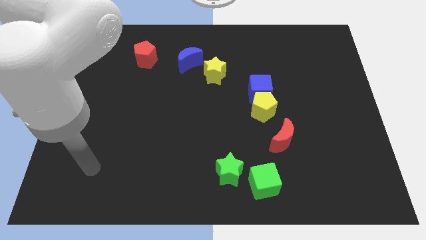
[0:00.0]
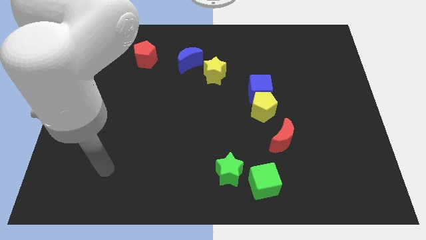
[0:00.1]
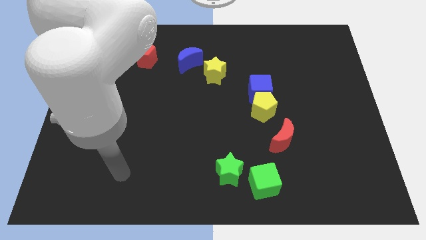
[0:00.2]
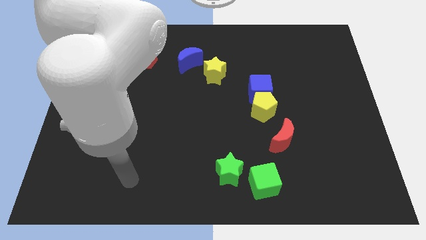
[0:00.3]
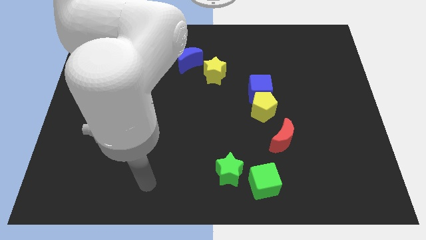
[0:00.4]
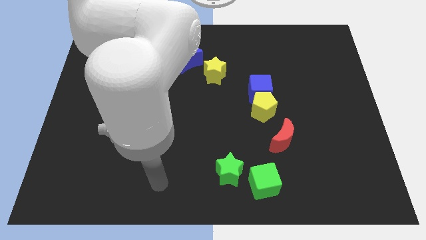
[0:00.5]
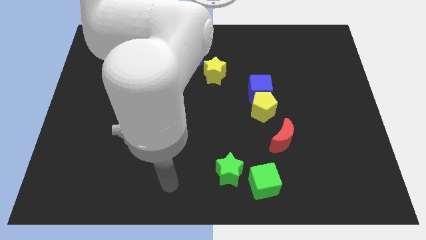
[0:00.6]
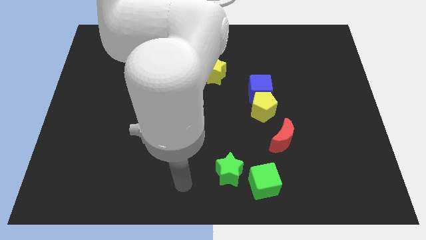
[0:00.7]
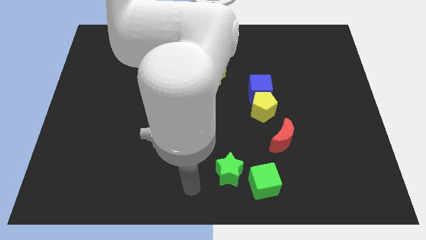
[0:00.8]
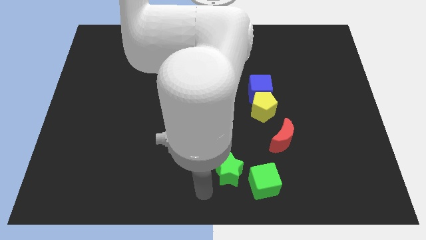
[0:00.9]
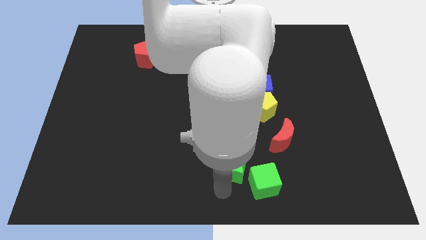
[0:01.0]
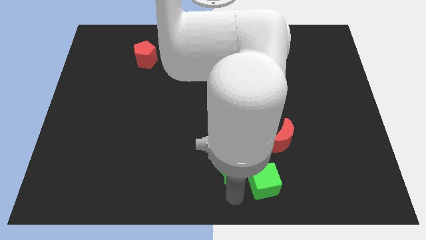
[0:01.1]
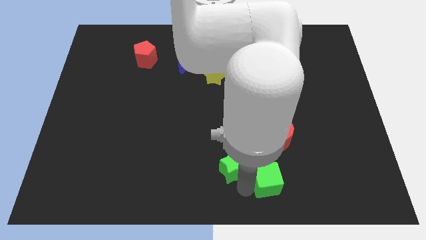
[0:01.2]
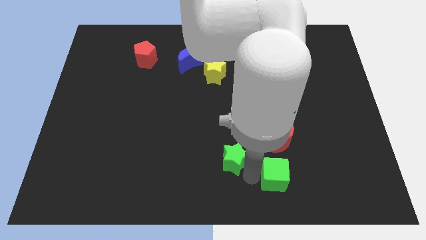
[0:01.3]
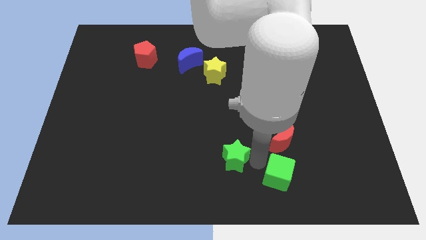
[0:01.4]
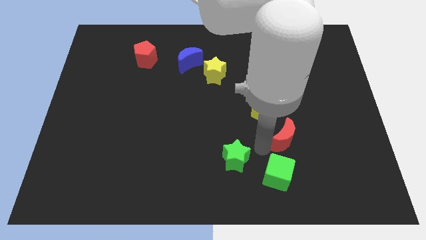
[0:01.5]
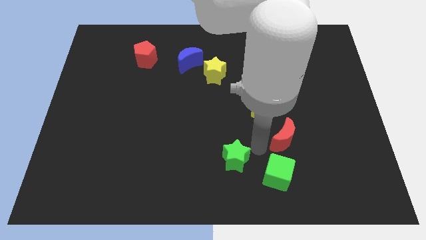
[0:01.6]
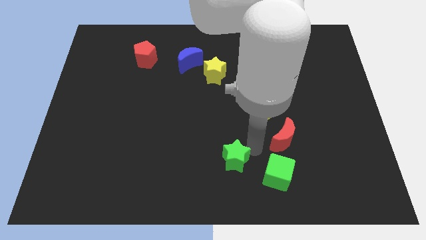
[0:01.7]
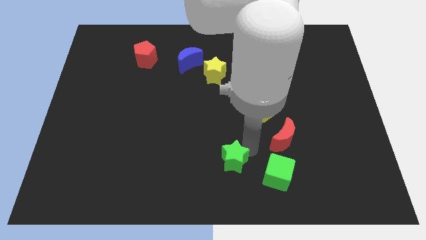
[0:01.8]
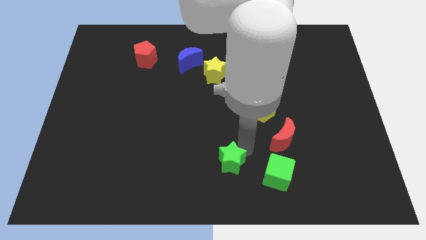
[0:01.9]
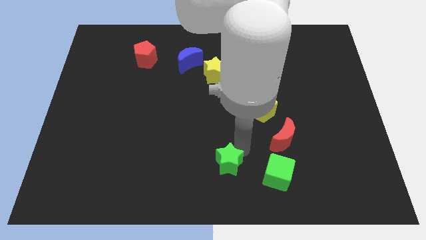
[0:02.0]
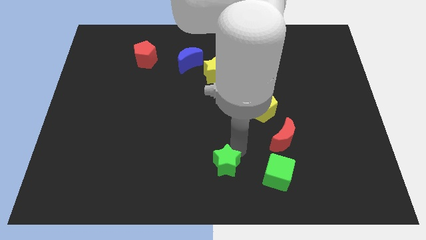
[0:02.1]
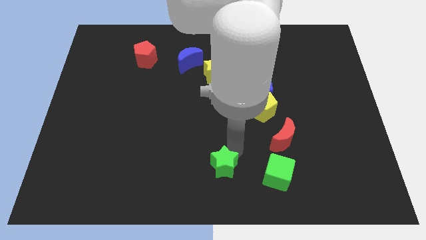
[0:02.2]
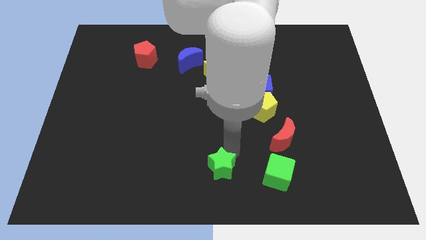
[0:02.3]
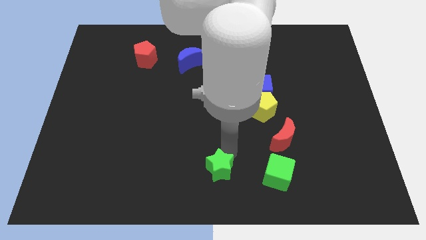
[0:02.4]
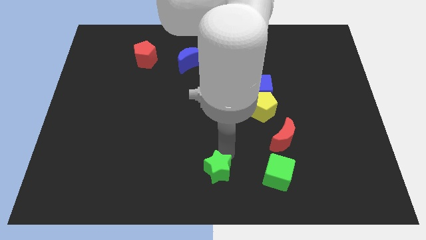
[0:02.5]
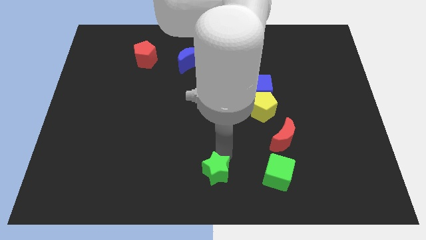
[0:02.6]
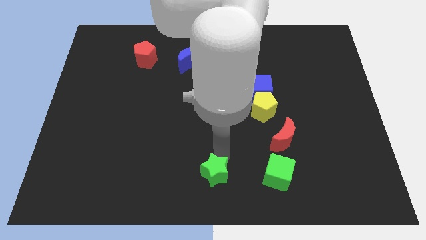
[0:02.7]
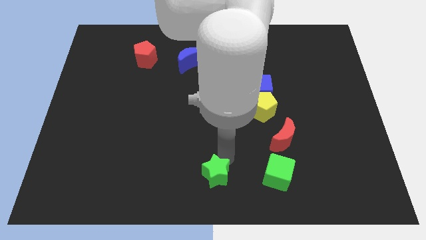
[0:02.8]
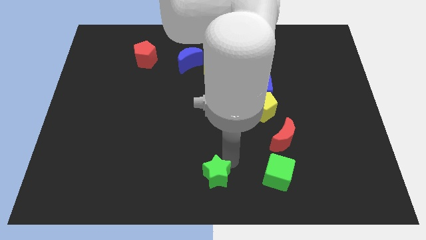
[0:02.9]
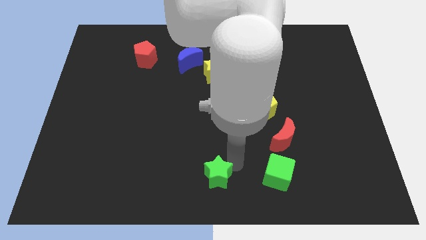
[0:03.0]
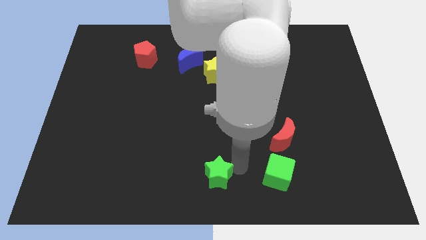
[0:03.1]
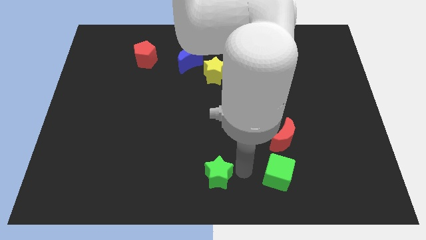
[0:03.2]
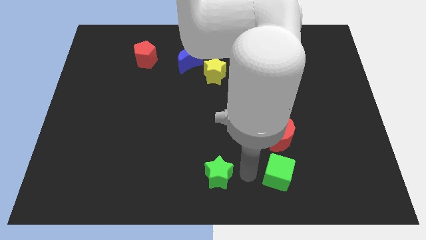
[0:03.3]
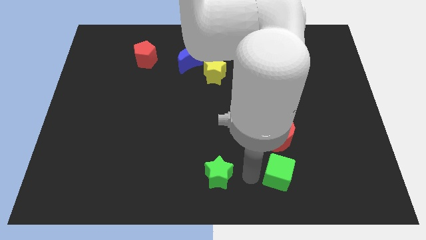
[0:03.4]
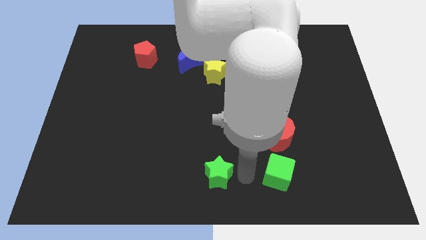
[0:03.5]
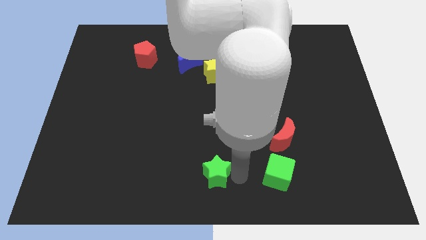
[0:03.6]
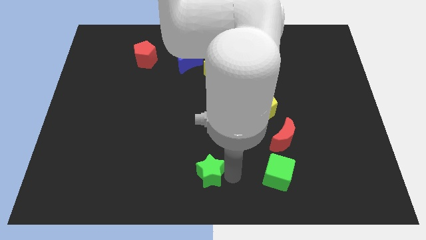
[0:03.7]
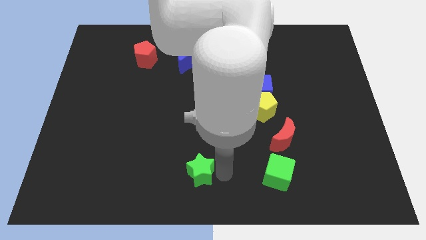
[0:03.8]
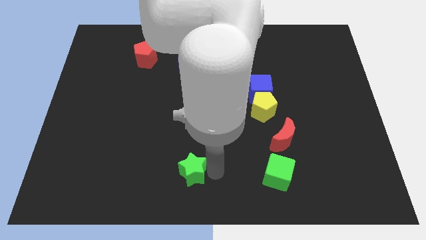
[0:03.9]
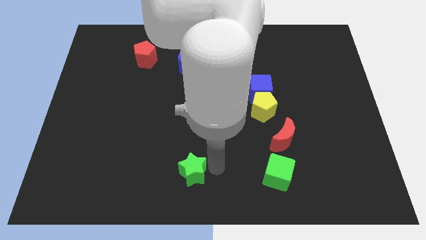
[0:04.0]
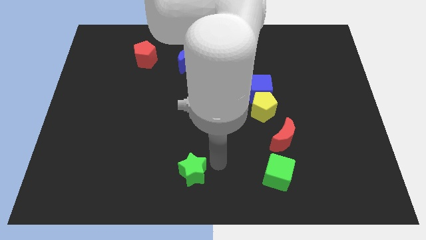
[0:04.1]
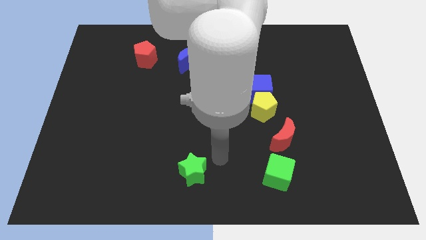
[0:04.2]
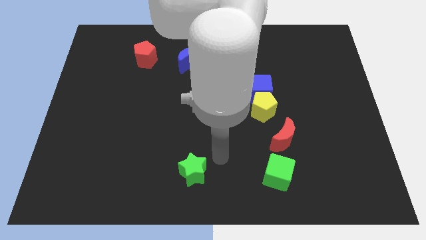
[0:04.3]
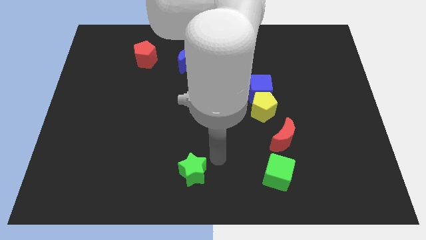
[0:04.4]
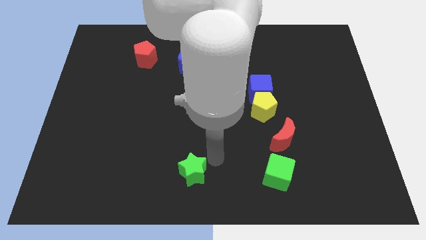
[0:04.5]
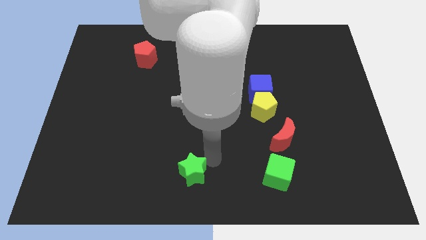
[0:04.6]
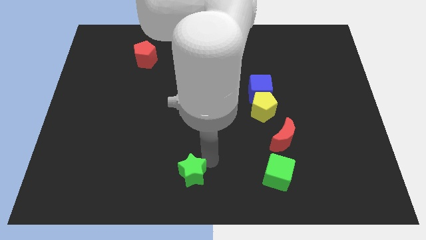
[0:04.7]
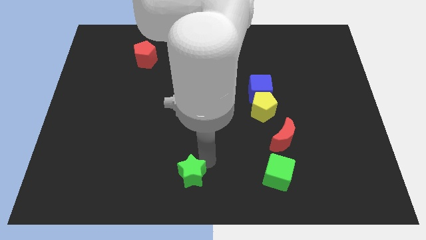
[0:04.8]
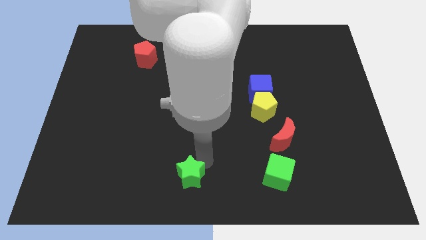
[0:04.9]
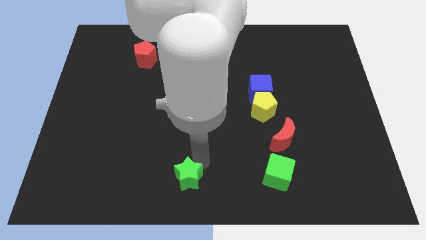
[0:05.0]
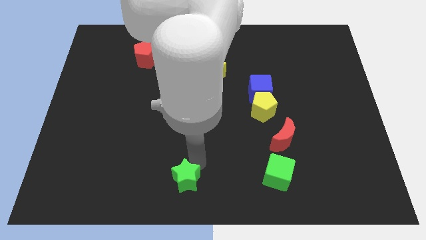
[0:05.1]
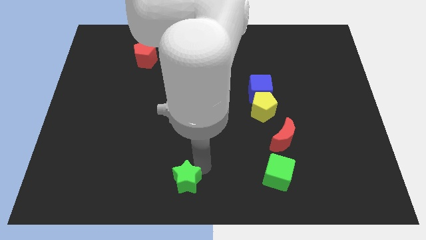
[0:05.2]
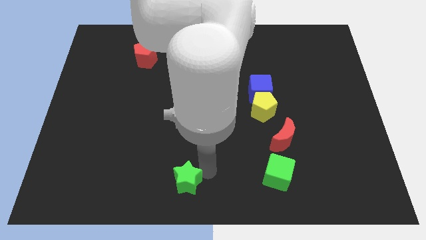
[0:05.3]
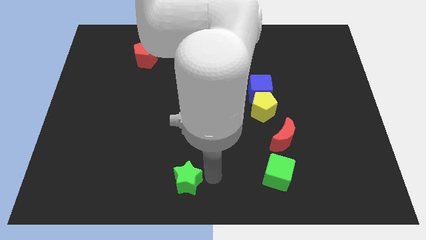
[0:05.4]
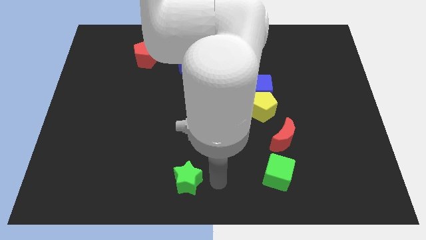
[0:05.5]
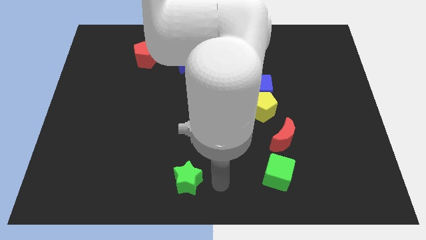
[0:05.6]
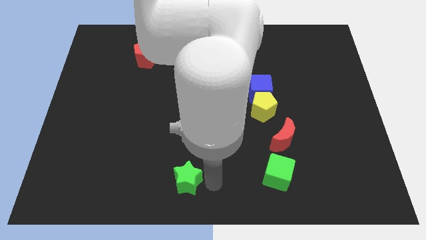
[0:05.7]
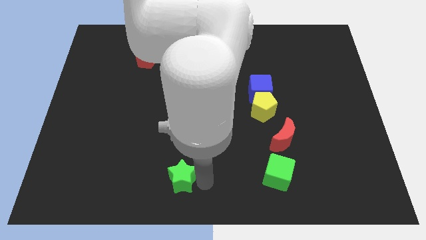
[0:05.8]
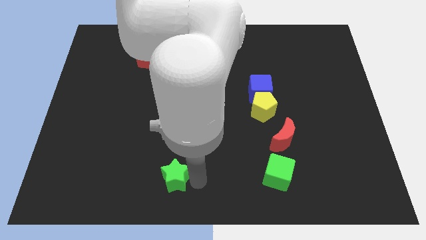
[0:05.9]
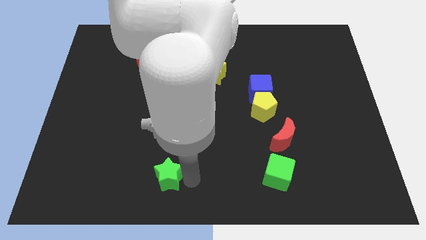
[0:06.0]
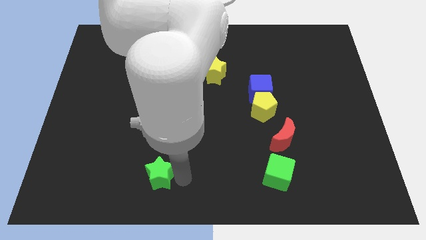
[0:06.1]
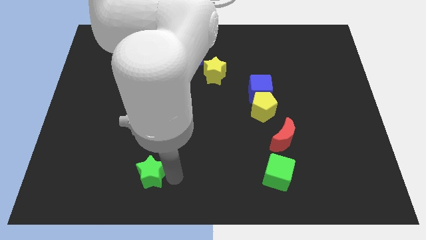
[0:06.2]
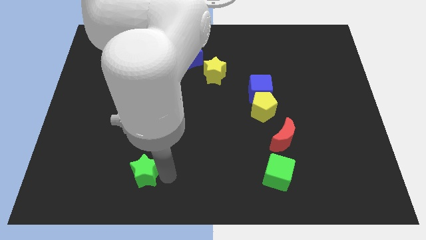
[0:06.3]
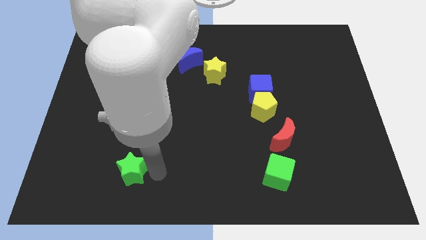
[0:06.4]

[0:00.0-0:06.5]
move the green star to the left

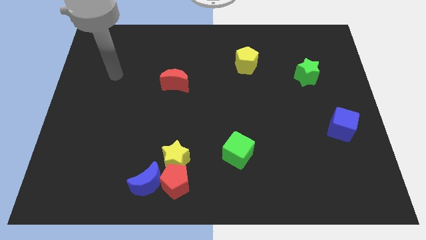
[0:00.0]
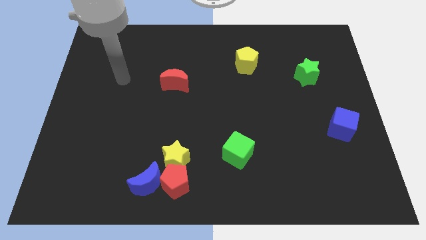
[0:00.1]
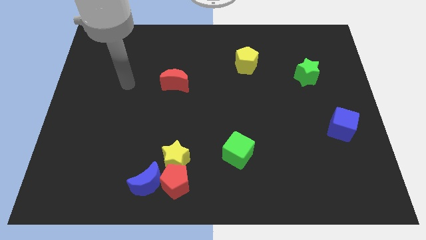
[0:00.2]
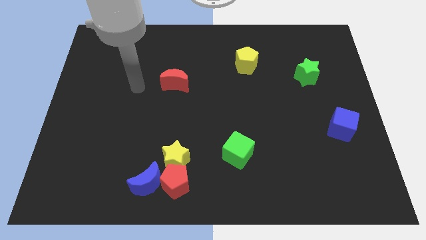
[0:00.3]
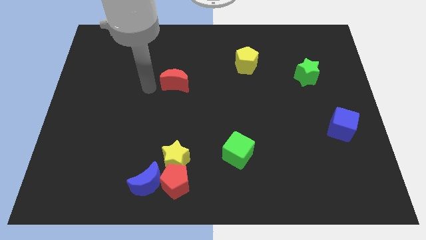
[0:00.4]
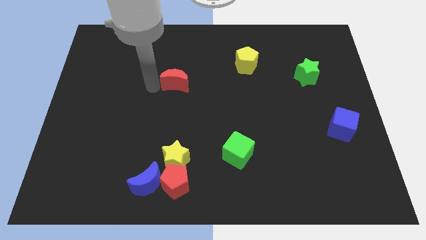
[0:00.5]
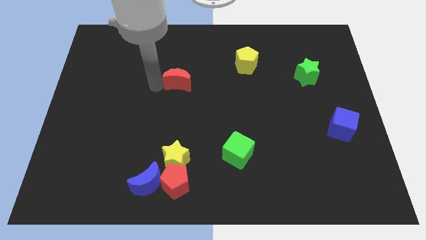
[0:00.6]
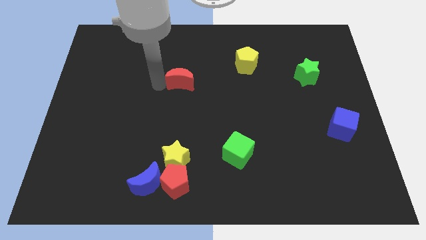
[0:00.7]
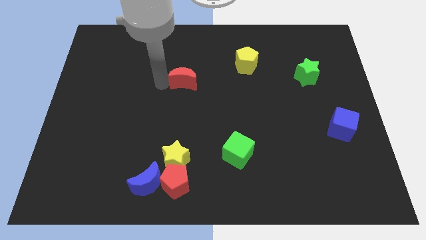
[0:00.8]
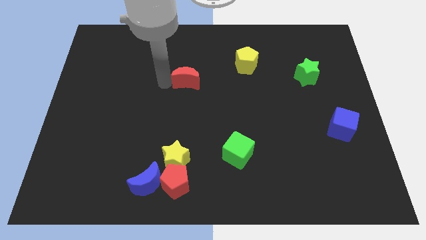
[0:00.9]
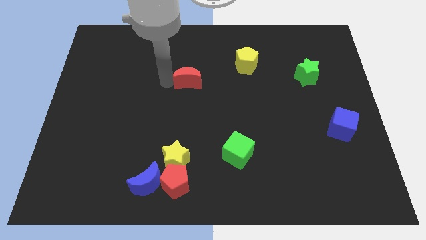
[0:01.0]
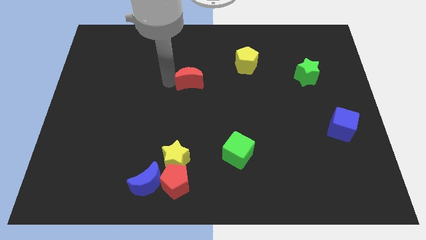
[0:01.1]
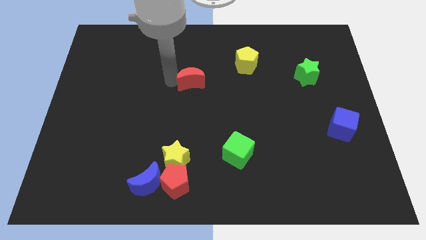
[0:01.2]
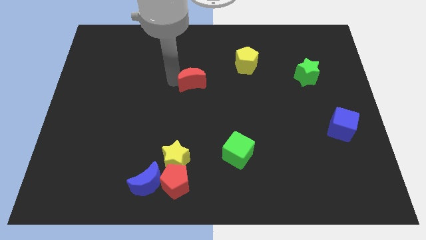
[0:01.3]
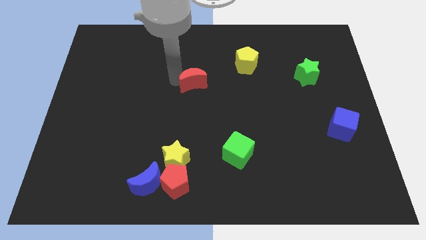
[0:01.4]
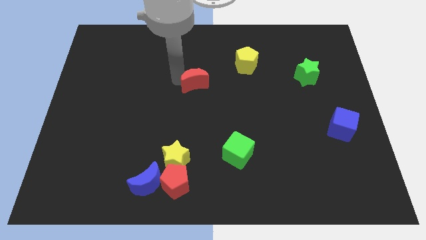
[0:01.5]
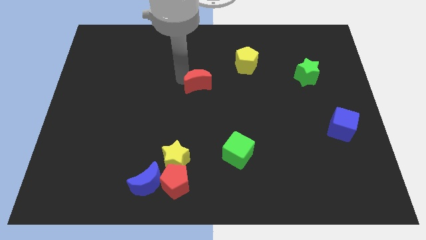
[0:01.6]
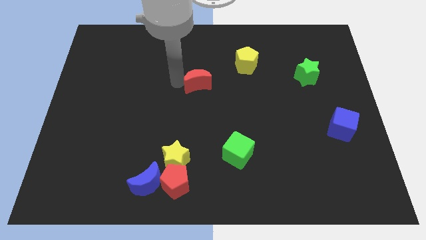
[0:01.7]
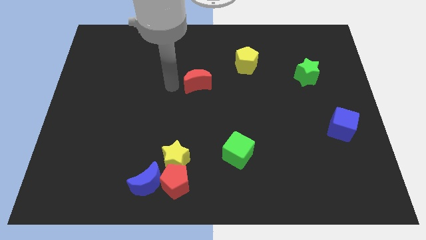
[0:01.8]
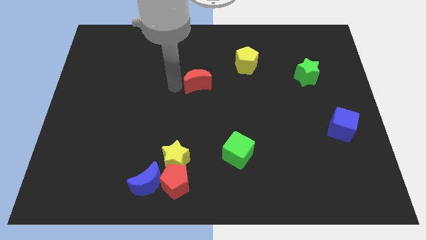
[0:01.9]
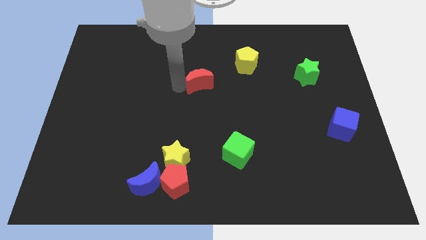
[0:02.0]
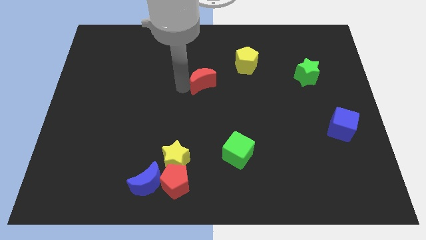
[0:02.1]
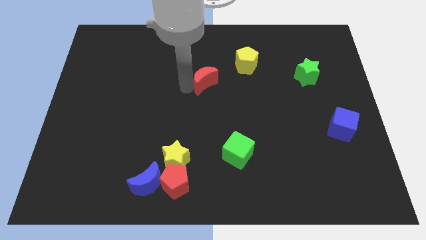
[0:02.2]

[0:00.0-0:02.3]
slightly push the red moon right
